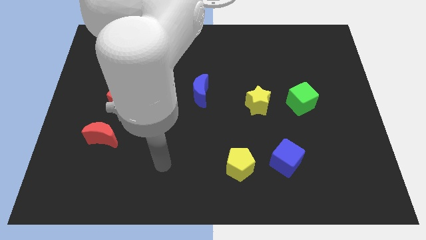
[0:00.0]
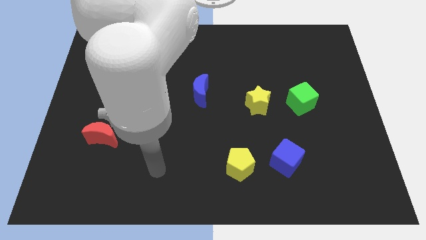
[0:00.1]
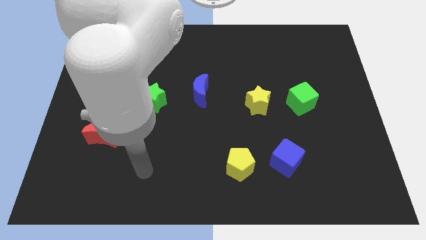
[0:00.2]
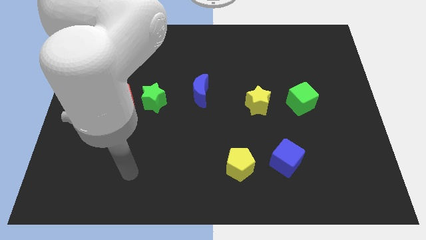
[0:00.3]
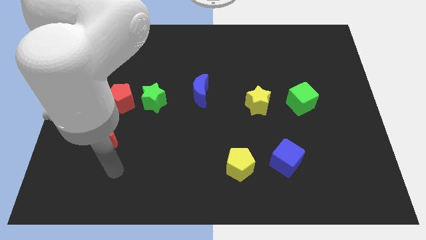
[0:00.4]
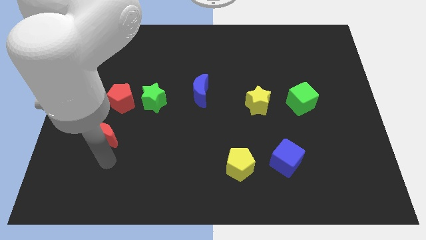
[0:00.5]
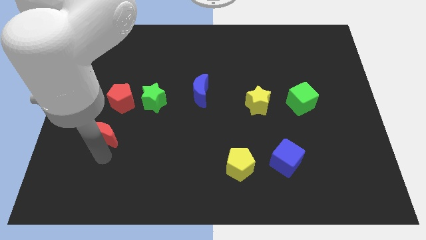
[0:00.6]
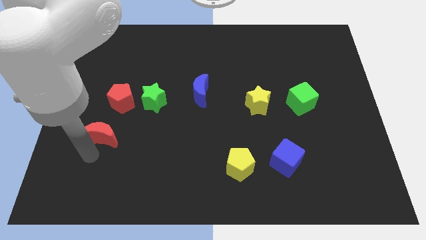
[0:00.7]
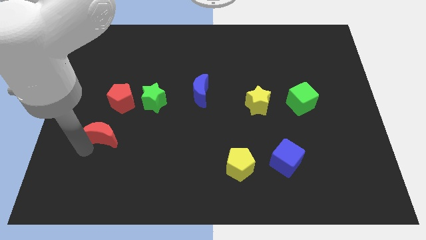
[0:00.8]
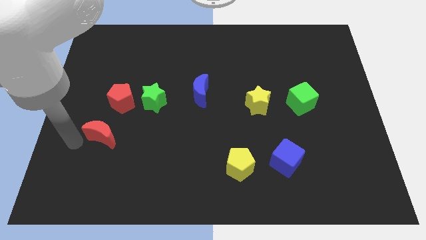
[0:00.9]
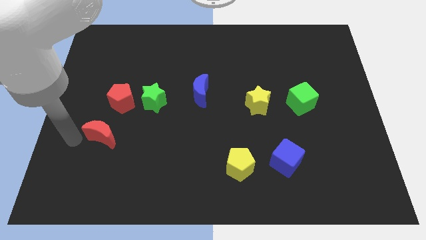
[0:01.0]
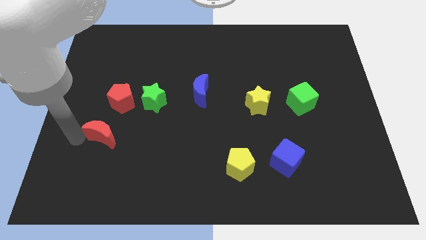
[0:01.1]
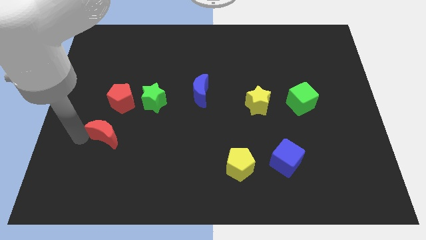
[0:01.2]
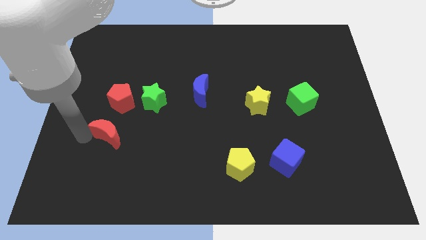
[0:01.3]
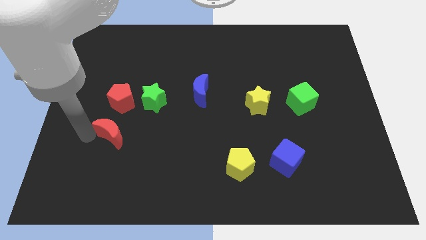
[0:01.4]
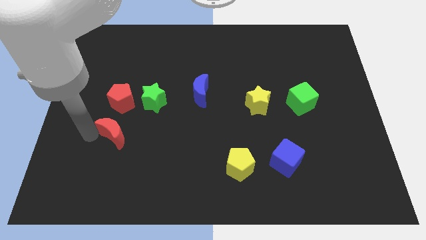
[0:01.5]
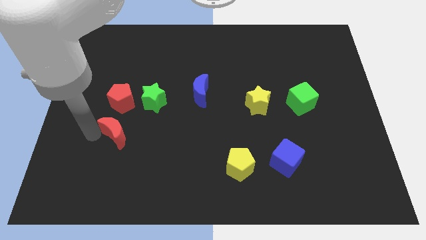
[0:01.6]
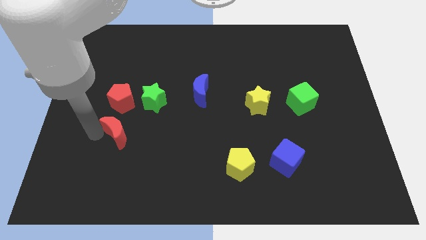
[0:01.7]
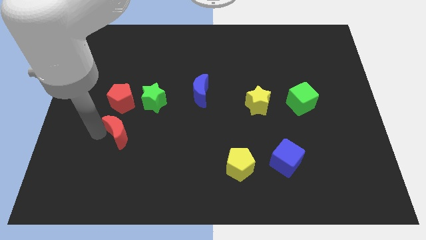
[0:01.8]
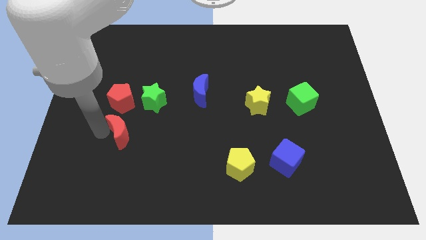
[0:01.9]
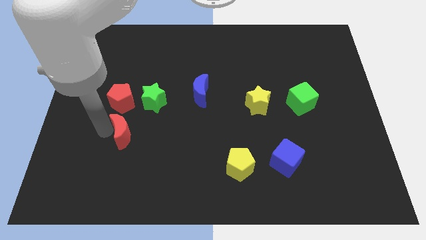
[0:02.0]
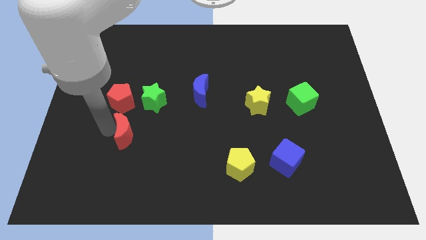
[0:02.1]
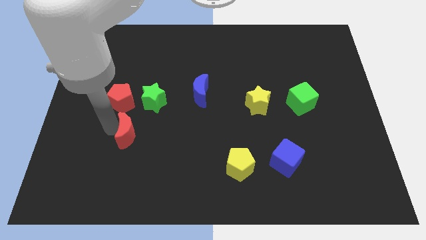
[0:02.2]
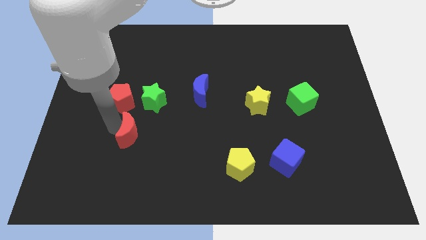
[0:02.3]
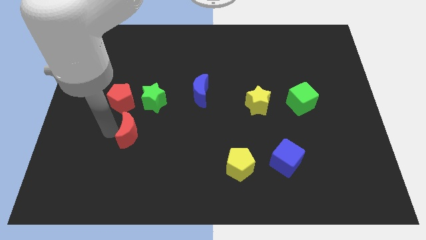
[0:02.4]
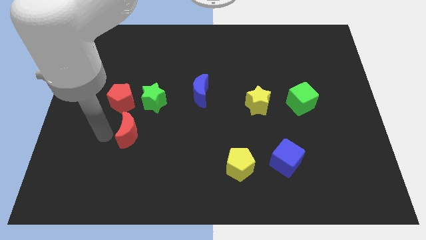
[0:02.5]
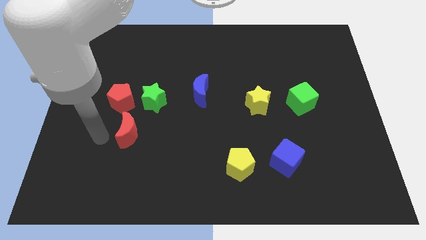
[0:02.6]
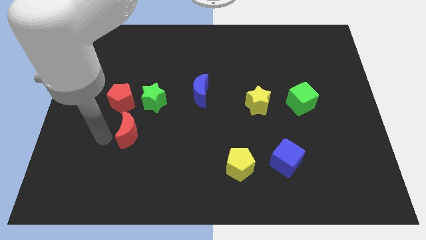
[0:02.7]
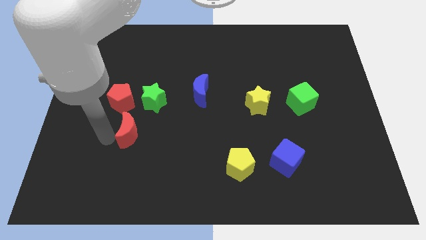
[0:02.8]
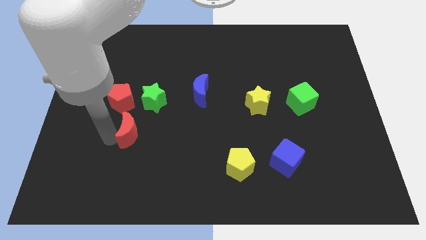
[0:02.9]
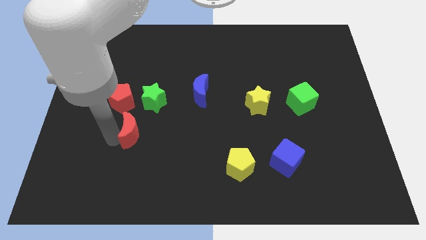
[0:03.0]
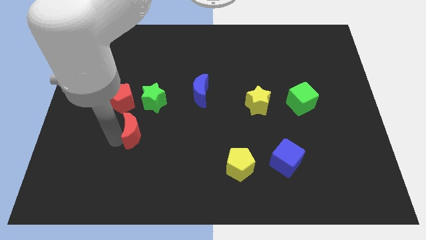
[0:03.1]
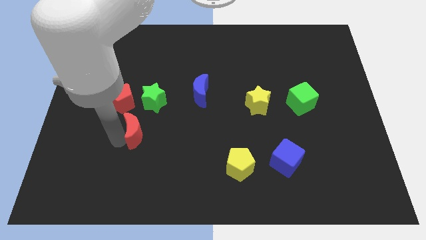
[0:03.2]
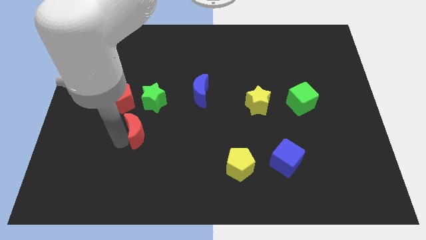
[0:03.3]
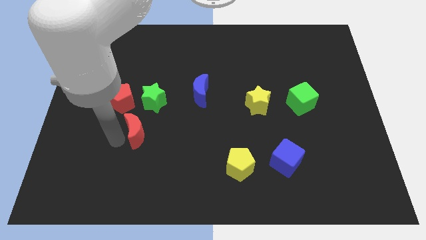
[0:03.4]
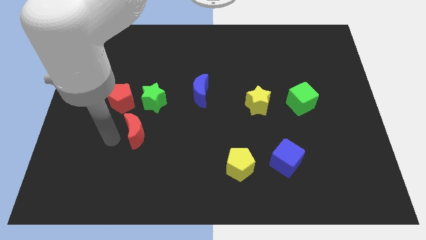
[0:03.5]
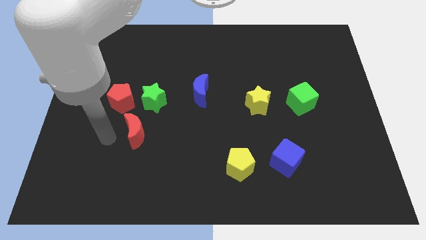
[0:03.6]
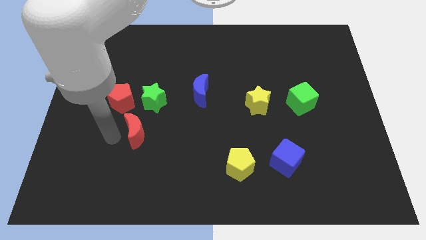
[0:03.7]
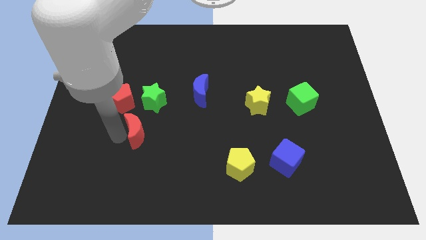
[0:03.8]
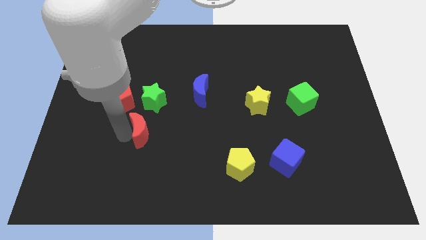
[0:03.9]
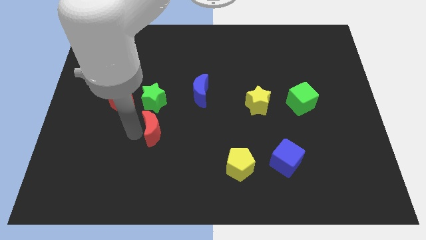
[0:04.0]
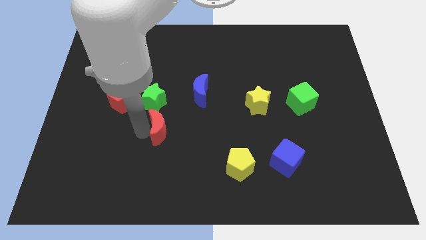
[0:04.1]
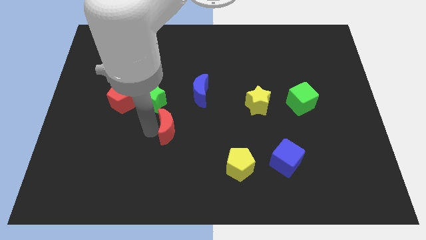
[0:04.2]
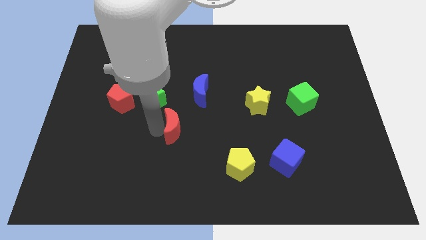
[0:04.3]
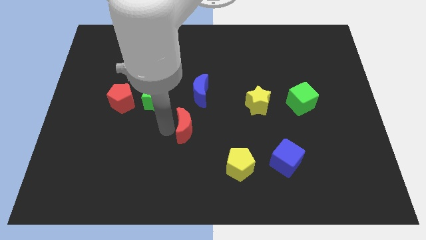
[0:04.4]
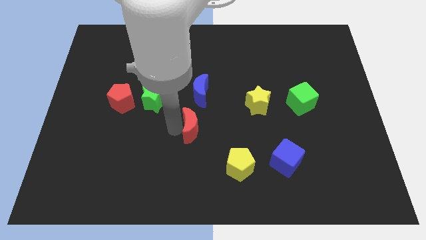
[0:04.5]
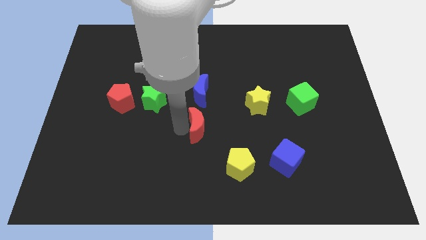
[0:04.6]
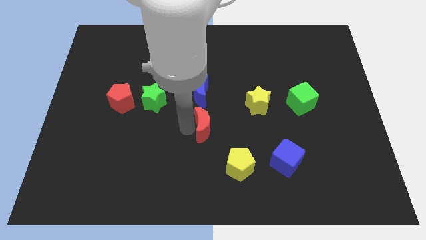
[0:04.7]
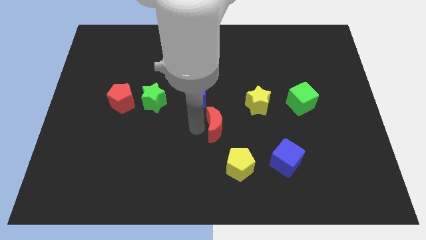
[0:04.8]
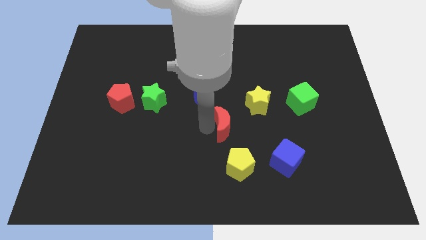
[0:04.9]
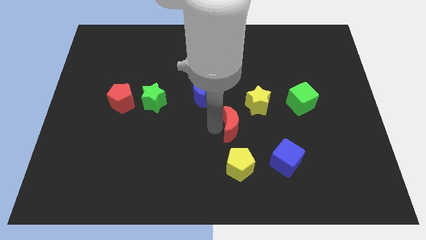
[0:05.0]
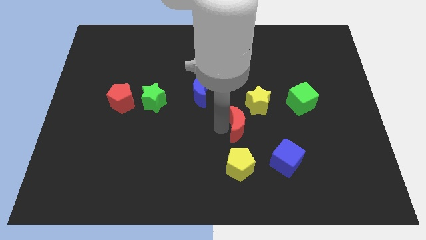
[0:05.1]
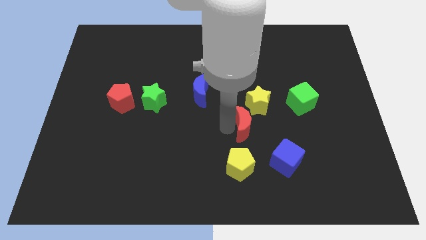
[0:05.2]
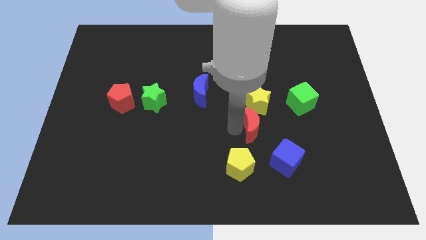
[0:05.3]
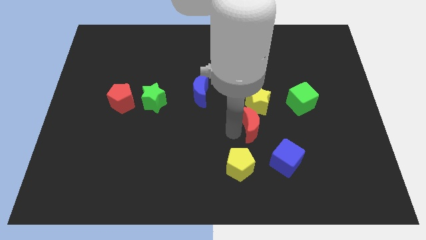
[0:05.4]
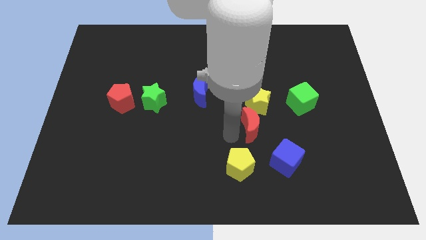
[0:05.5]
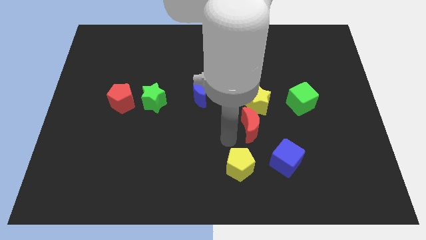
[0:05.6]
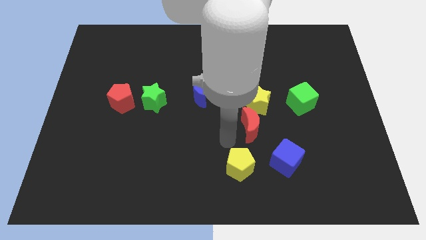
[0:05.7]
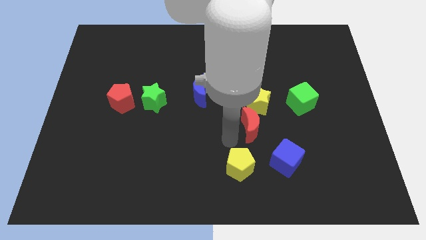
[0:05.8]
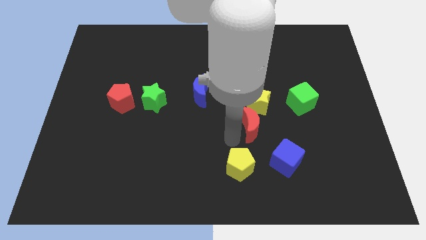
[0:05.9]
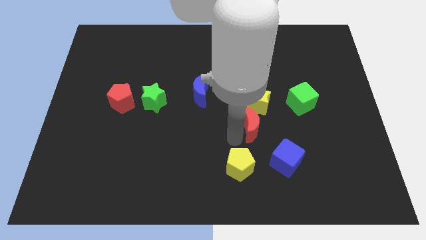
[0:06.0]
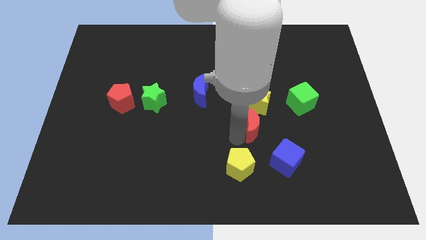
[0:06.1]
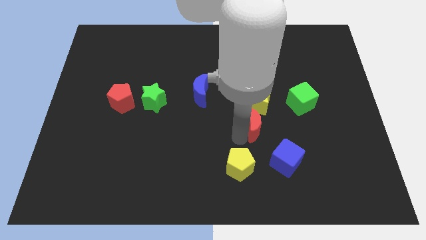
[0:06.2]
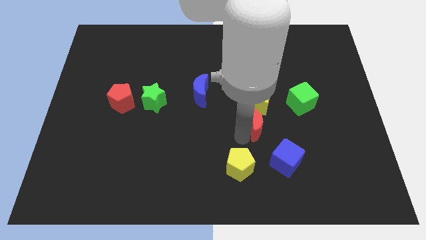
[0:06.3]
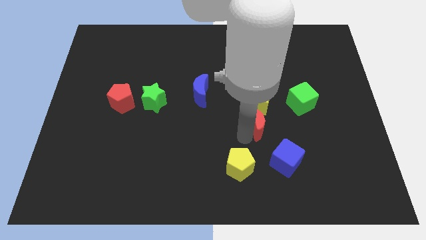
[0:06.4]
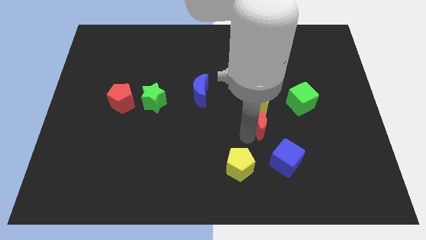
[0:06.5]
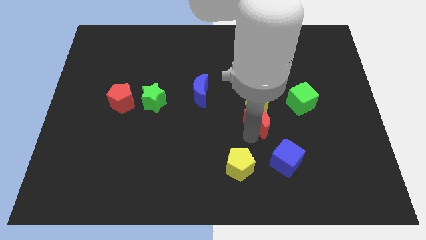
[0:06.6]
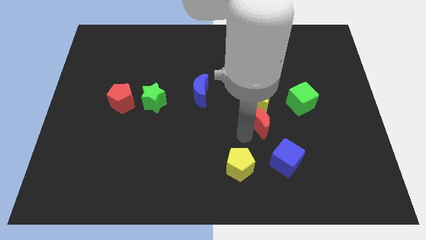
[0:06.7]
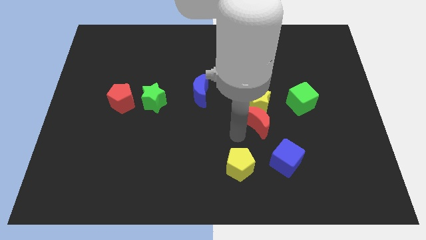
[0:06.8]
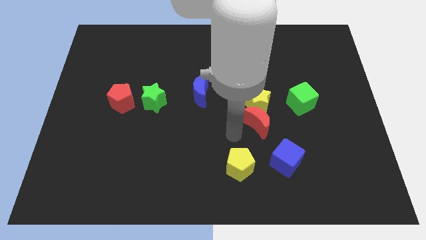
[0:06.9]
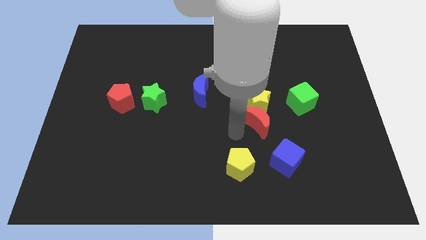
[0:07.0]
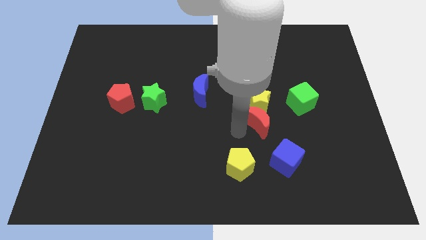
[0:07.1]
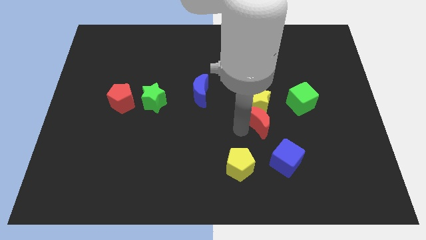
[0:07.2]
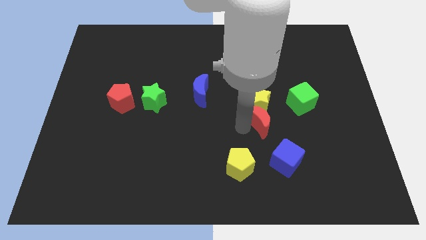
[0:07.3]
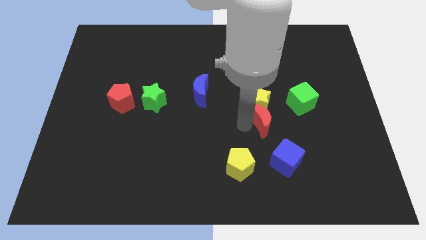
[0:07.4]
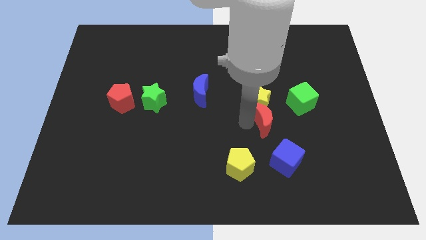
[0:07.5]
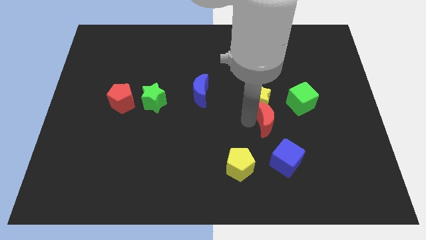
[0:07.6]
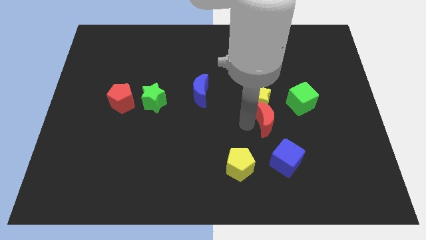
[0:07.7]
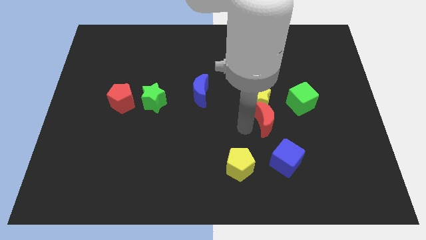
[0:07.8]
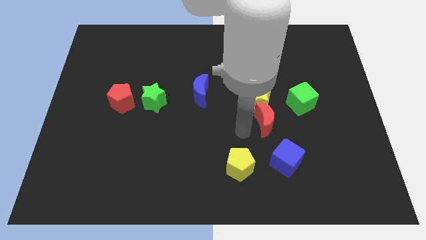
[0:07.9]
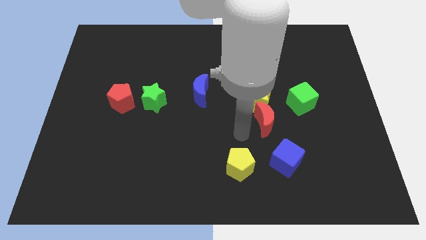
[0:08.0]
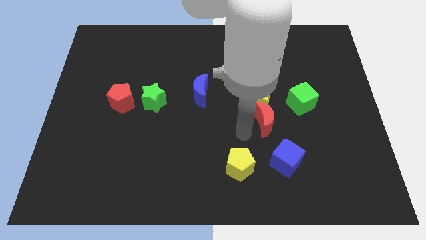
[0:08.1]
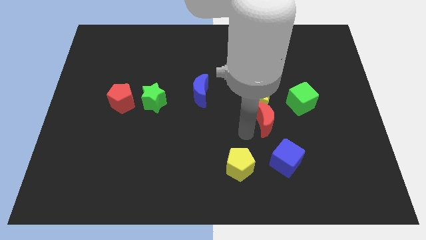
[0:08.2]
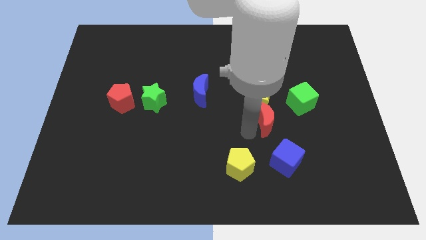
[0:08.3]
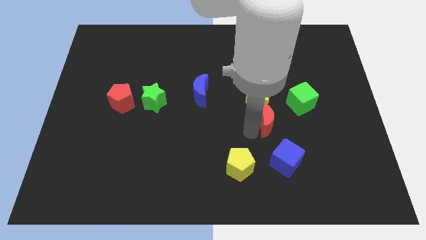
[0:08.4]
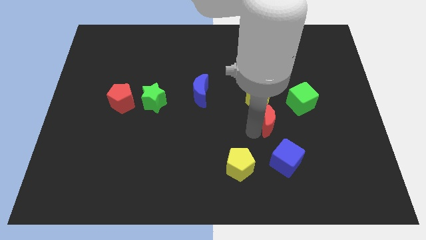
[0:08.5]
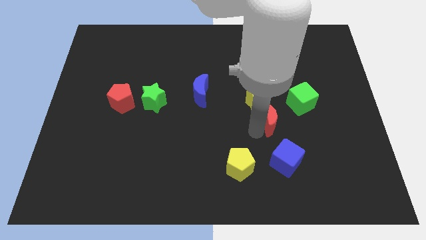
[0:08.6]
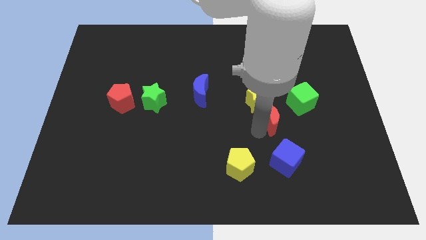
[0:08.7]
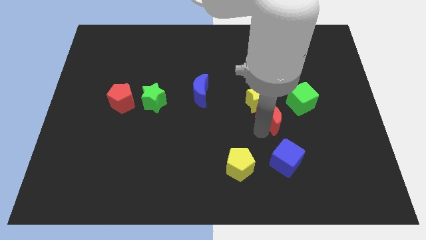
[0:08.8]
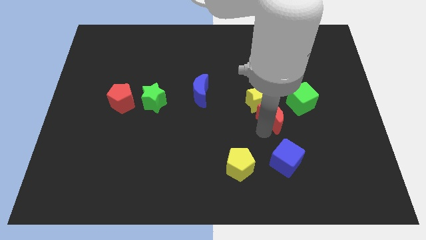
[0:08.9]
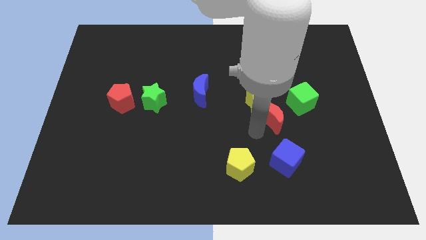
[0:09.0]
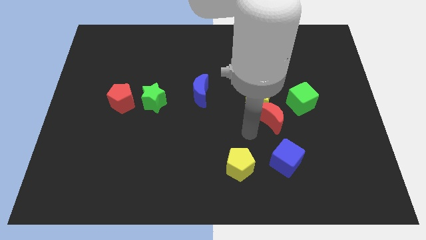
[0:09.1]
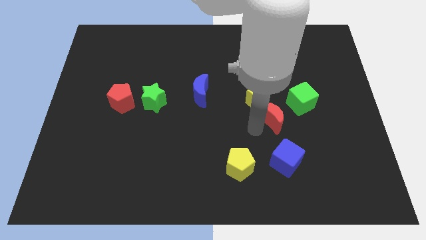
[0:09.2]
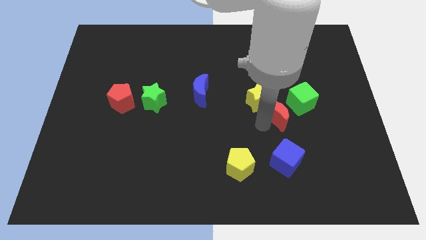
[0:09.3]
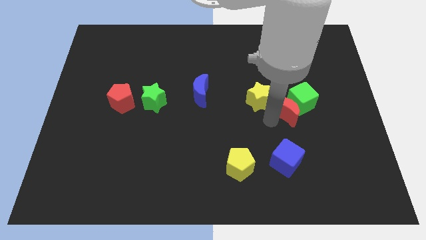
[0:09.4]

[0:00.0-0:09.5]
put the red moon next to the green cube
